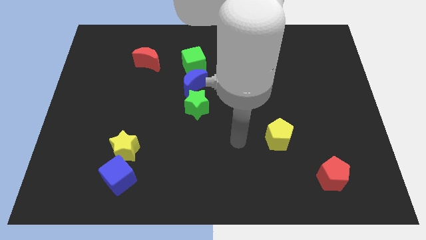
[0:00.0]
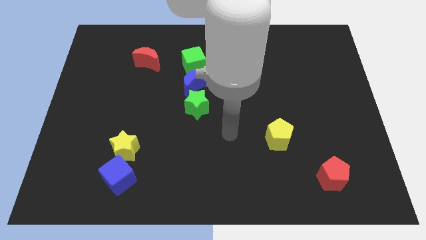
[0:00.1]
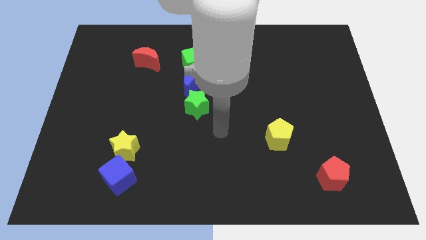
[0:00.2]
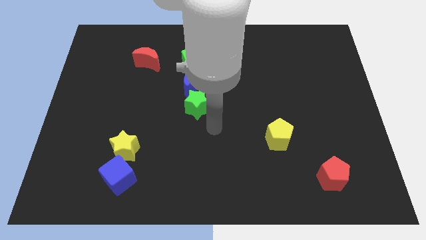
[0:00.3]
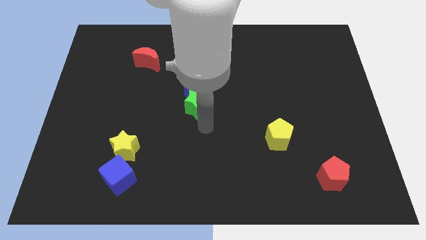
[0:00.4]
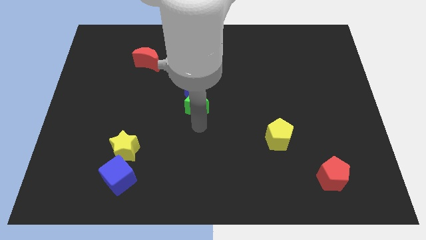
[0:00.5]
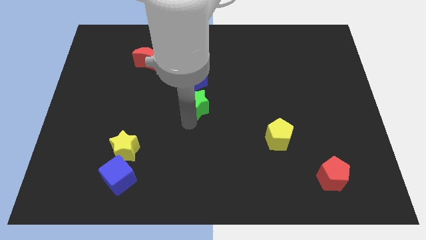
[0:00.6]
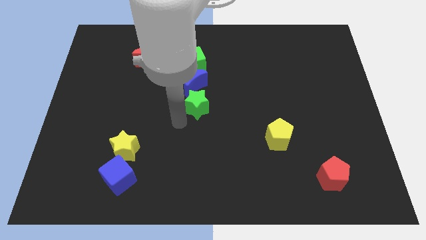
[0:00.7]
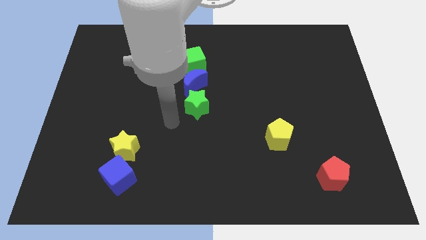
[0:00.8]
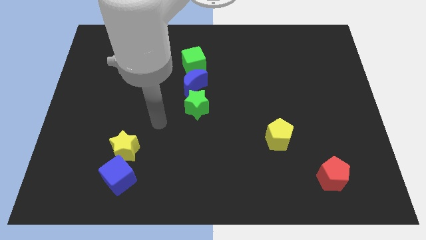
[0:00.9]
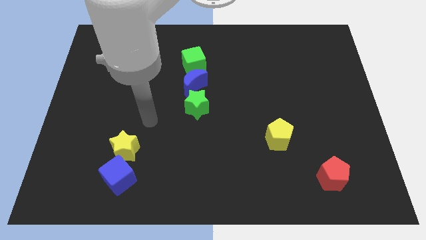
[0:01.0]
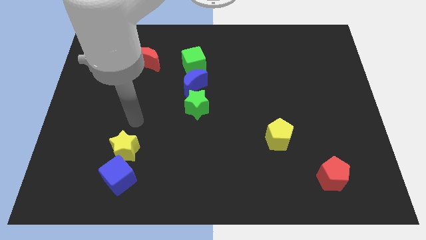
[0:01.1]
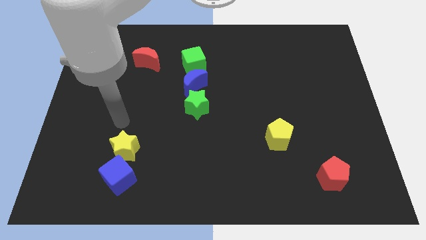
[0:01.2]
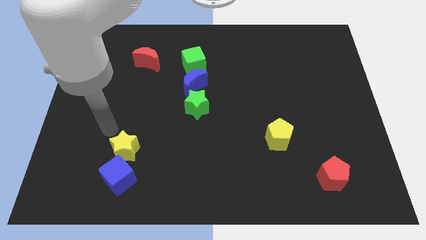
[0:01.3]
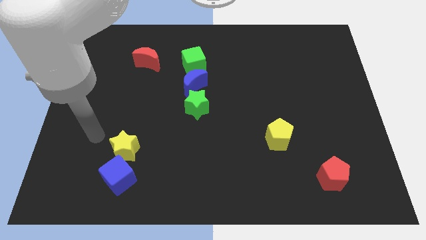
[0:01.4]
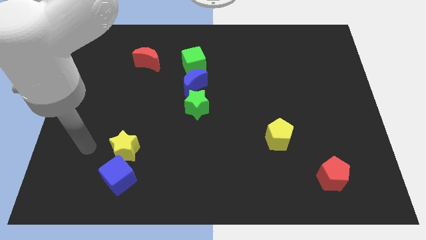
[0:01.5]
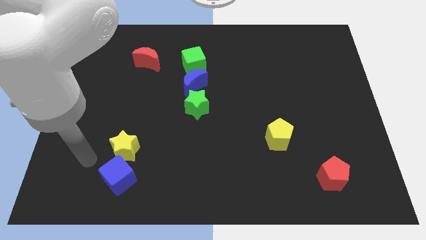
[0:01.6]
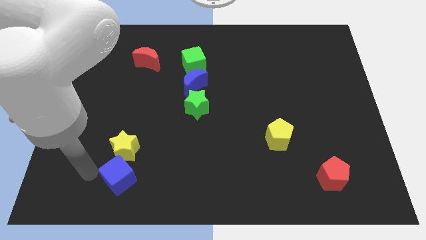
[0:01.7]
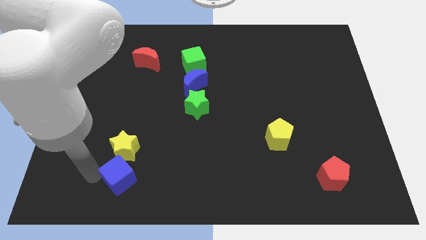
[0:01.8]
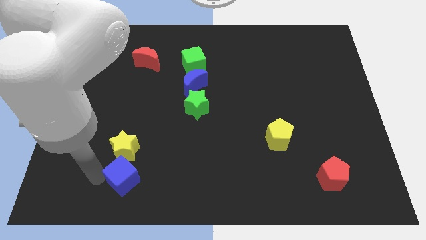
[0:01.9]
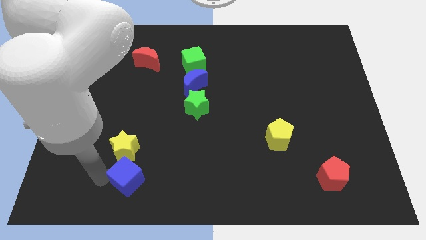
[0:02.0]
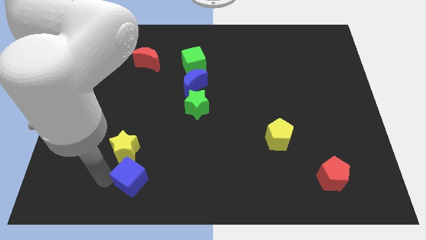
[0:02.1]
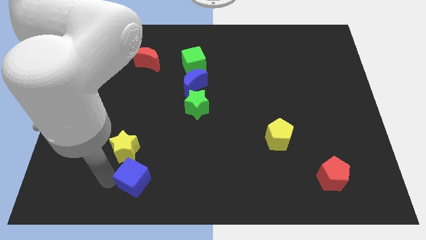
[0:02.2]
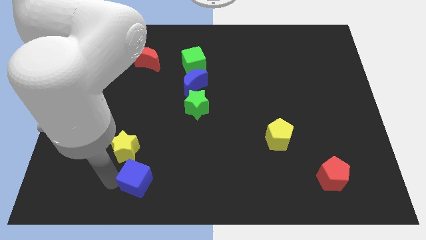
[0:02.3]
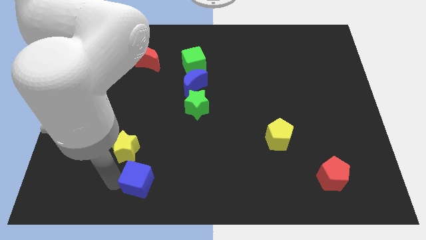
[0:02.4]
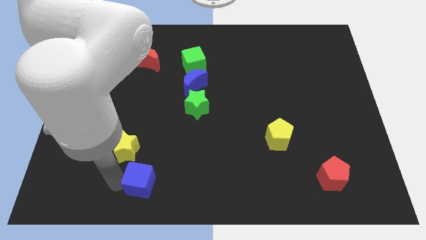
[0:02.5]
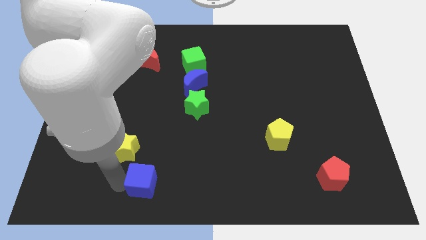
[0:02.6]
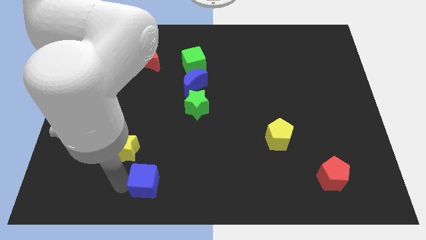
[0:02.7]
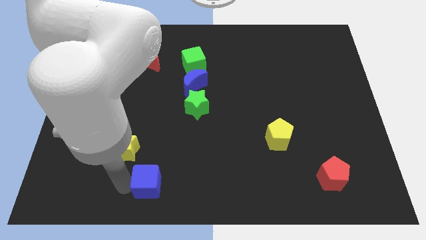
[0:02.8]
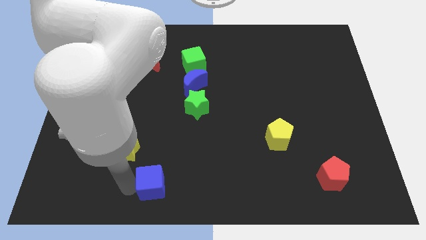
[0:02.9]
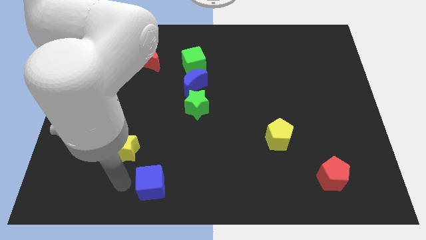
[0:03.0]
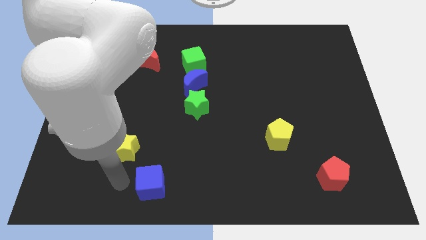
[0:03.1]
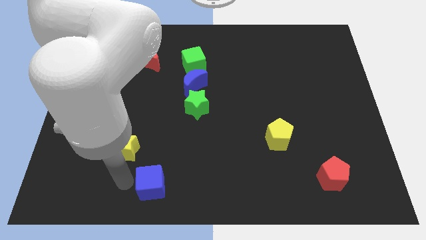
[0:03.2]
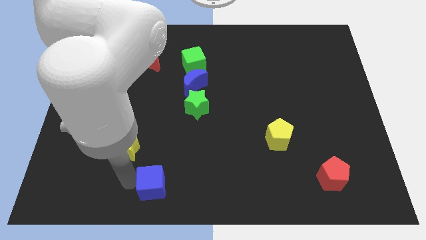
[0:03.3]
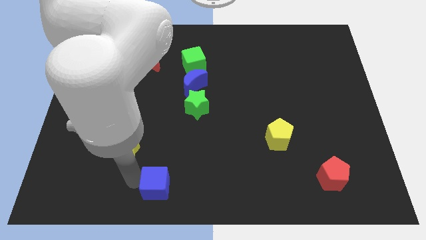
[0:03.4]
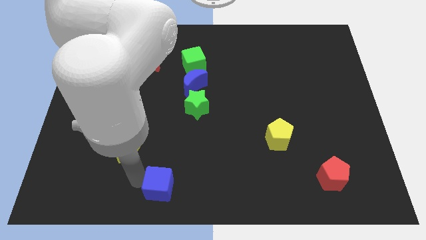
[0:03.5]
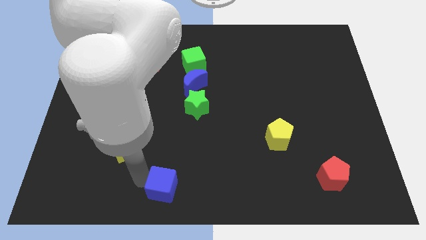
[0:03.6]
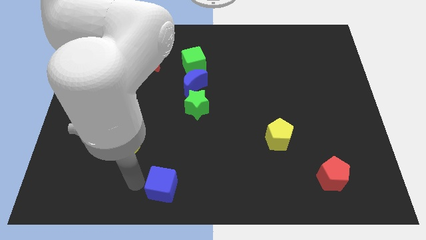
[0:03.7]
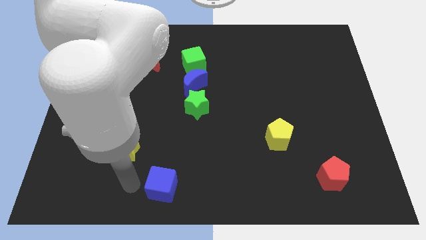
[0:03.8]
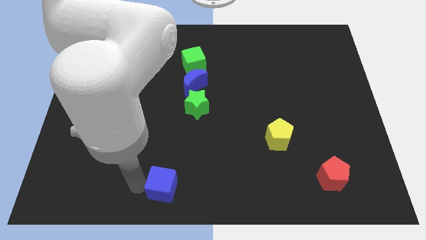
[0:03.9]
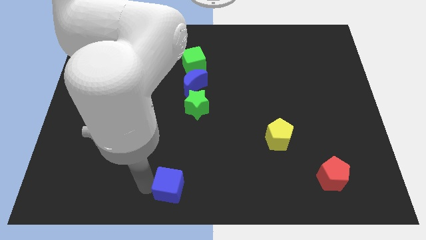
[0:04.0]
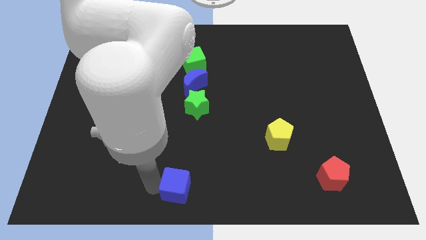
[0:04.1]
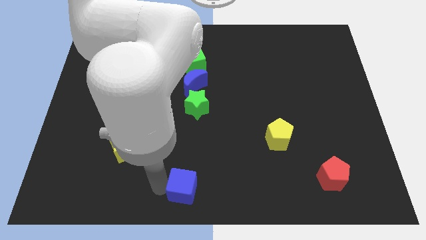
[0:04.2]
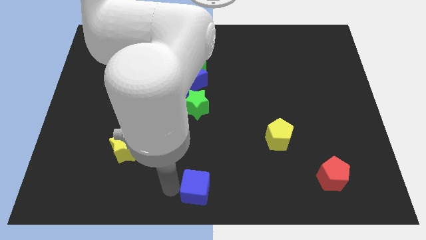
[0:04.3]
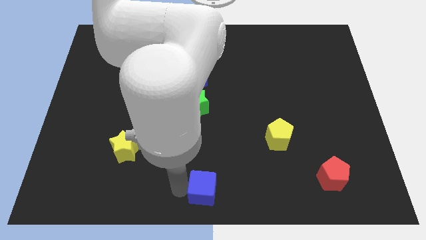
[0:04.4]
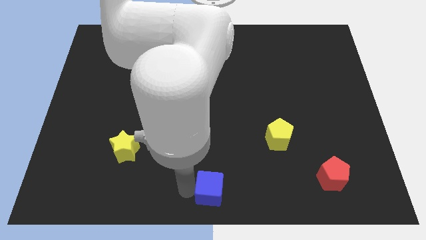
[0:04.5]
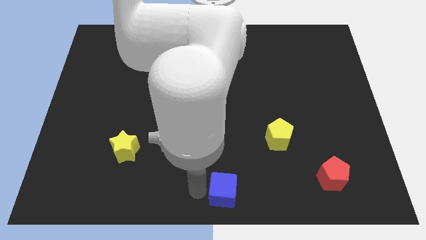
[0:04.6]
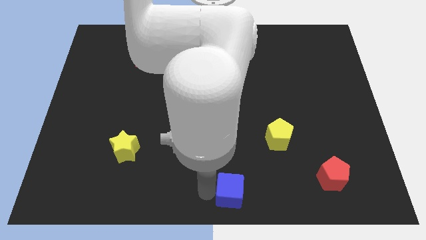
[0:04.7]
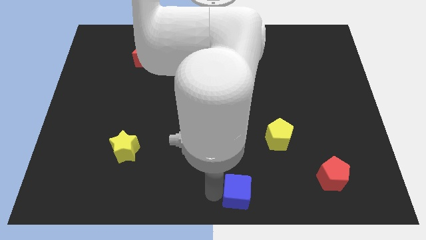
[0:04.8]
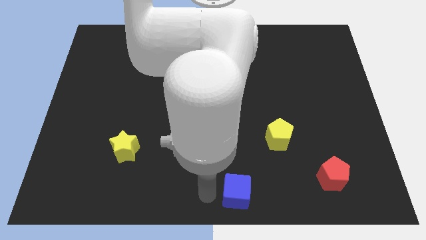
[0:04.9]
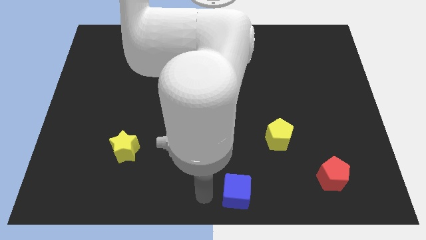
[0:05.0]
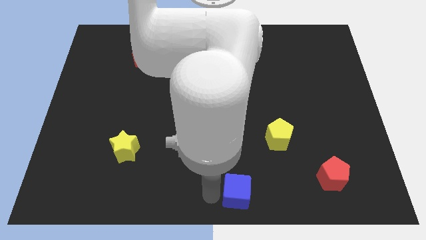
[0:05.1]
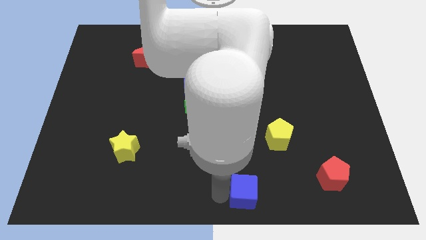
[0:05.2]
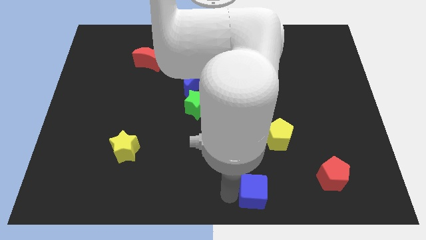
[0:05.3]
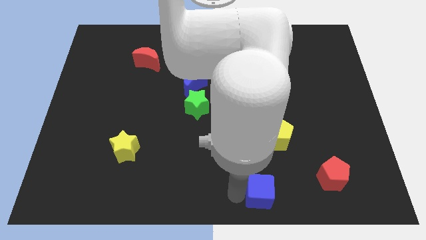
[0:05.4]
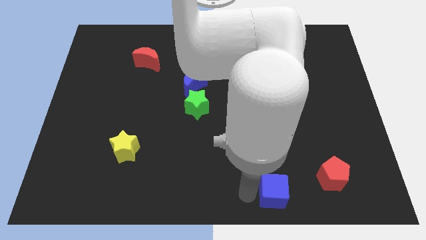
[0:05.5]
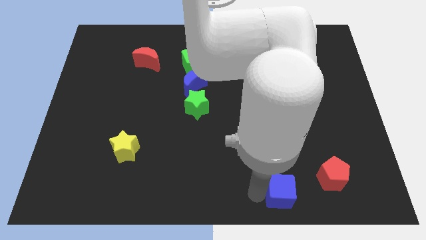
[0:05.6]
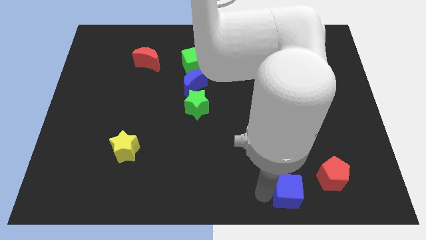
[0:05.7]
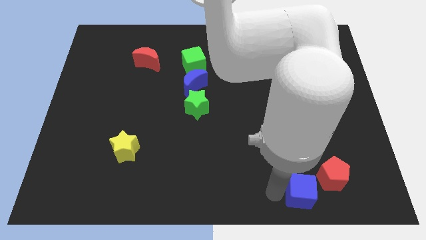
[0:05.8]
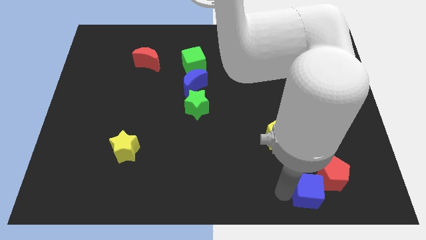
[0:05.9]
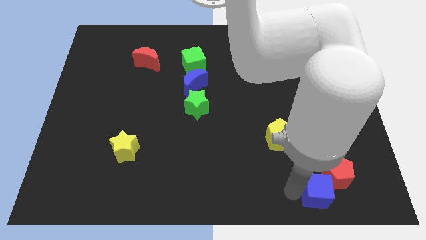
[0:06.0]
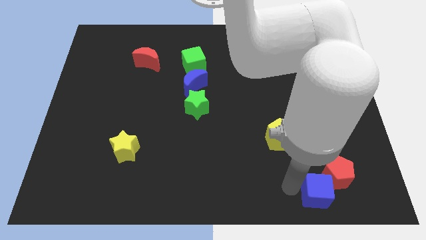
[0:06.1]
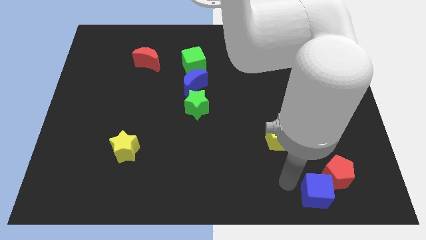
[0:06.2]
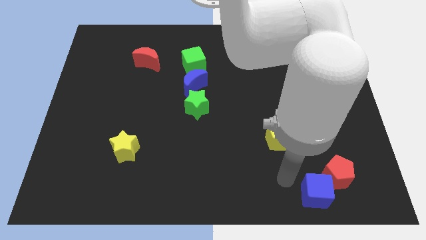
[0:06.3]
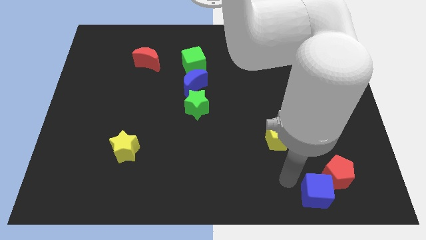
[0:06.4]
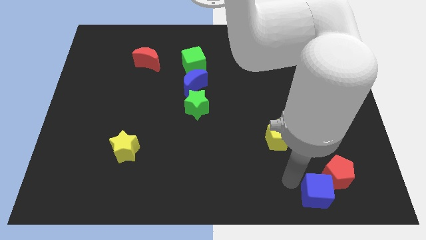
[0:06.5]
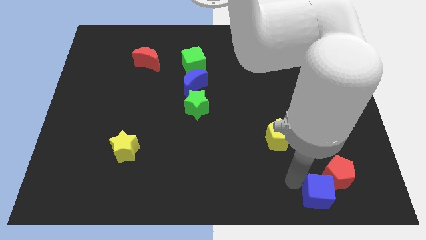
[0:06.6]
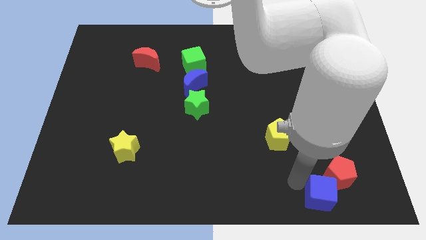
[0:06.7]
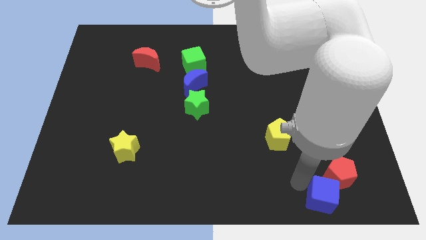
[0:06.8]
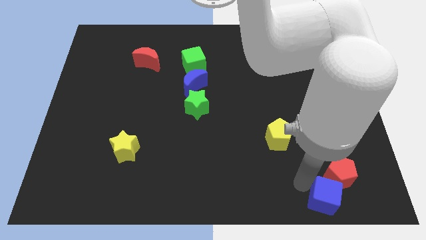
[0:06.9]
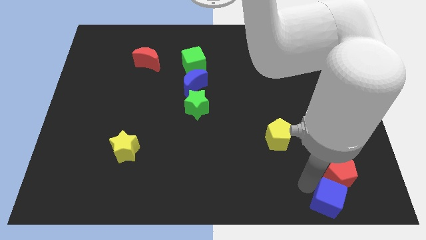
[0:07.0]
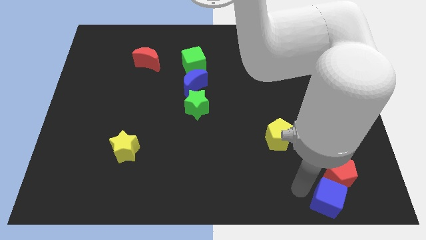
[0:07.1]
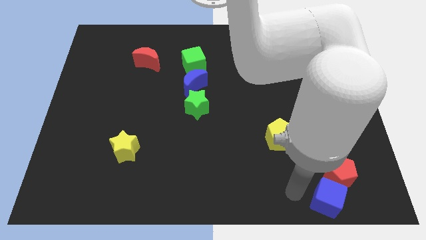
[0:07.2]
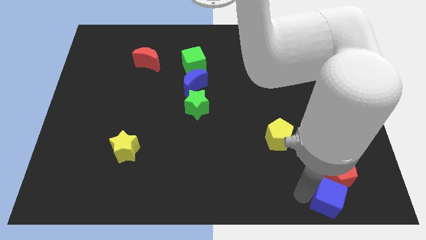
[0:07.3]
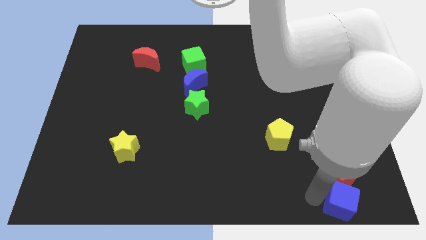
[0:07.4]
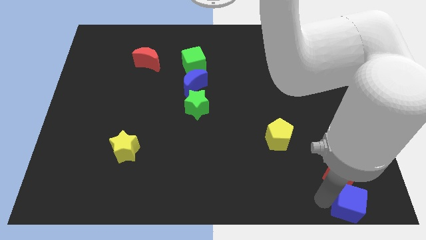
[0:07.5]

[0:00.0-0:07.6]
slide the blue cube to the bottom right
